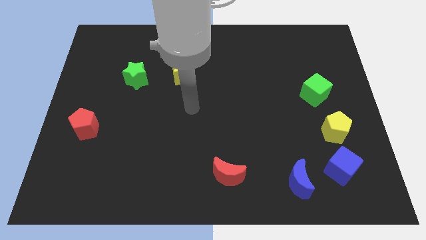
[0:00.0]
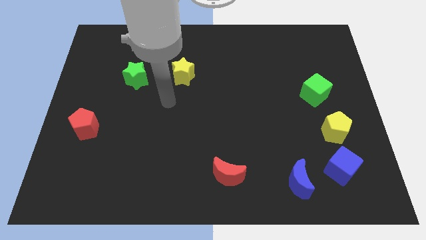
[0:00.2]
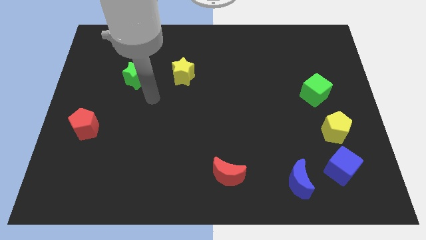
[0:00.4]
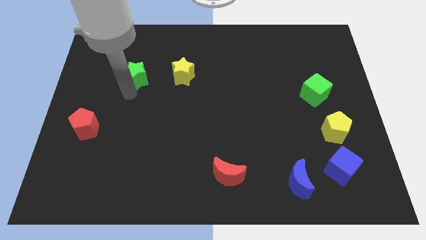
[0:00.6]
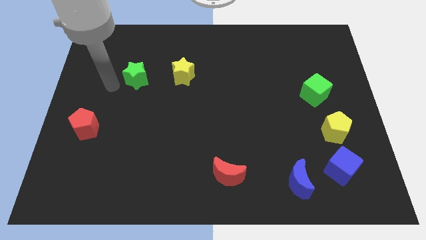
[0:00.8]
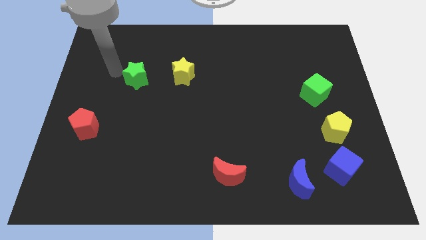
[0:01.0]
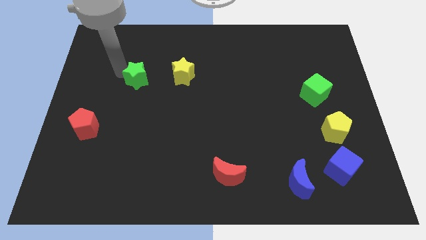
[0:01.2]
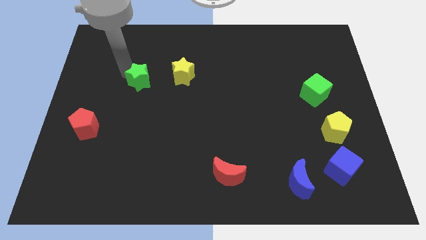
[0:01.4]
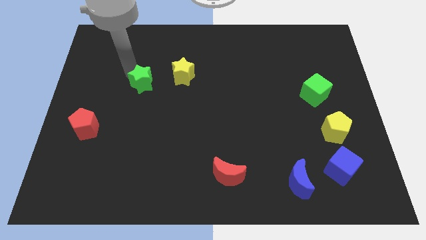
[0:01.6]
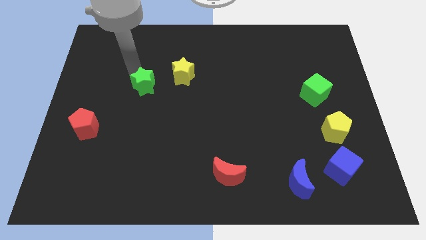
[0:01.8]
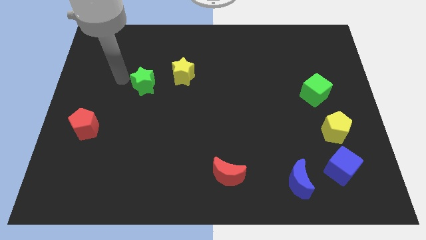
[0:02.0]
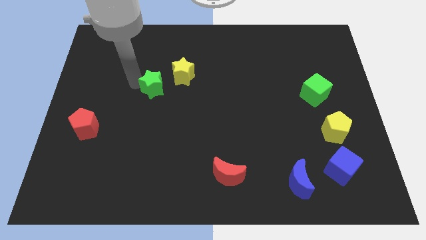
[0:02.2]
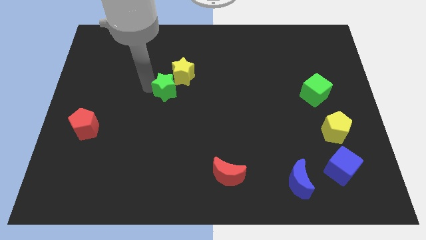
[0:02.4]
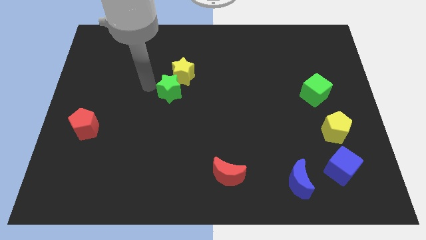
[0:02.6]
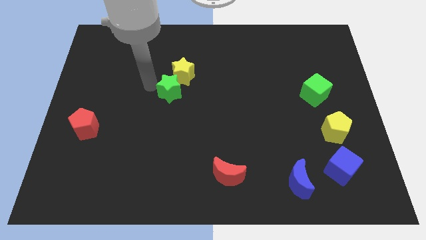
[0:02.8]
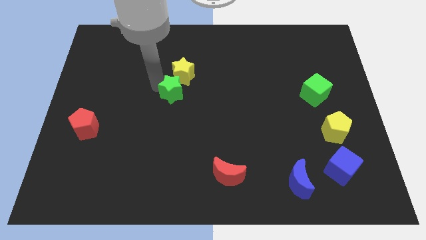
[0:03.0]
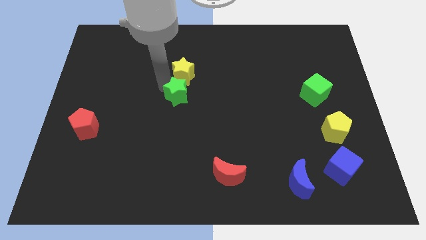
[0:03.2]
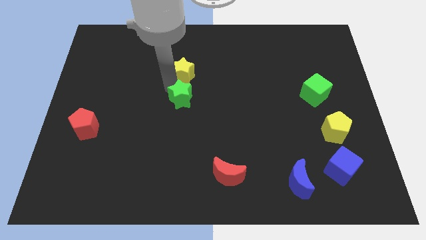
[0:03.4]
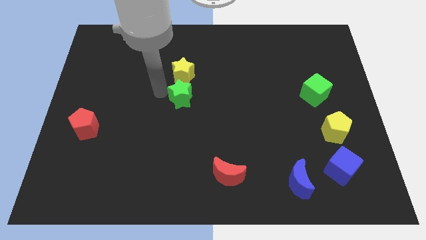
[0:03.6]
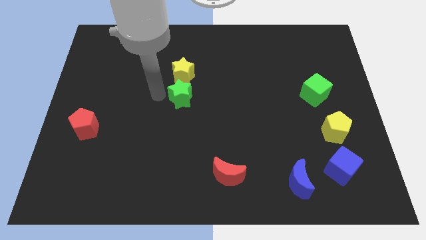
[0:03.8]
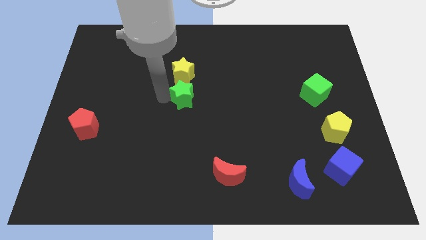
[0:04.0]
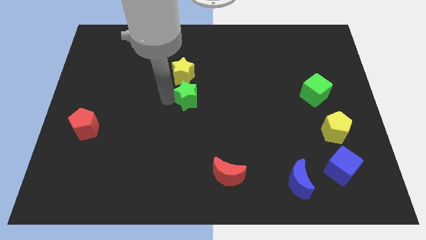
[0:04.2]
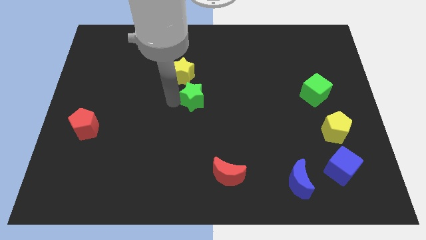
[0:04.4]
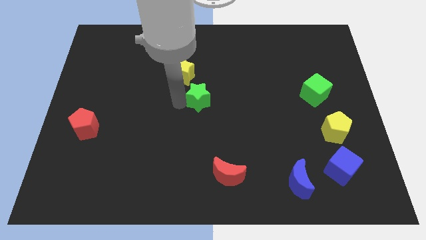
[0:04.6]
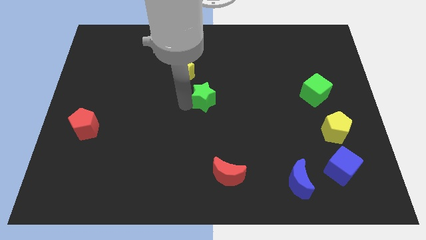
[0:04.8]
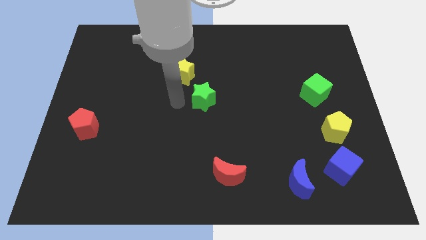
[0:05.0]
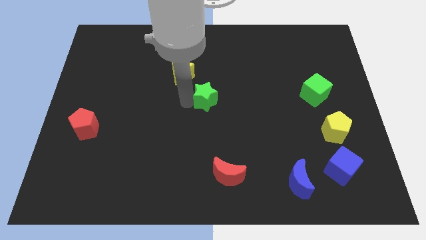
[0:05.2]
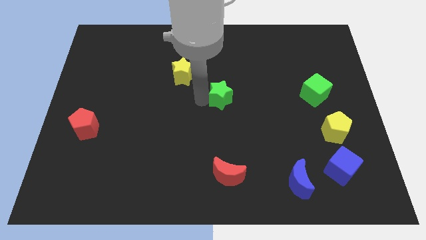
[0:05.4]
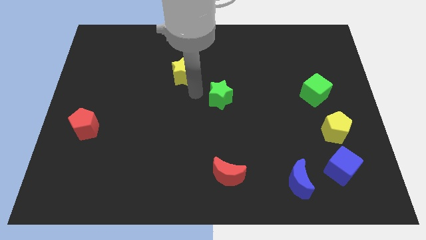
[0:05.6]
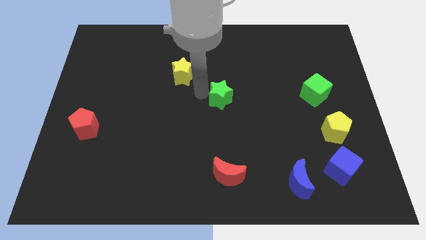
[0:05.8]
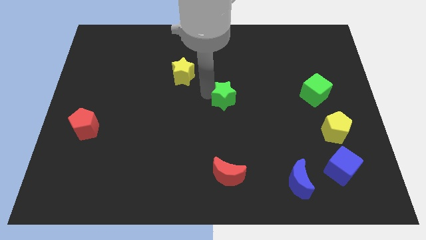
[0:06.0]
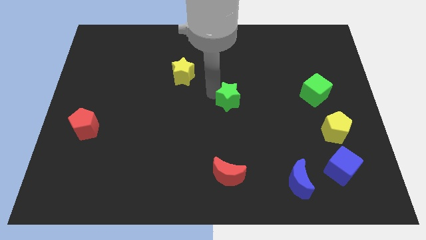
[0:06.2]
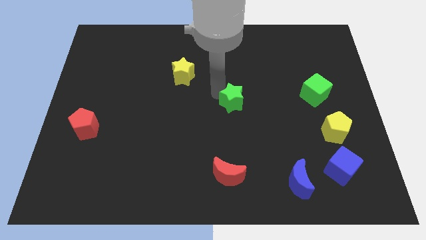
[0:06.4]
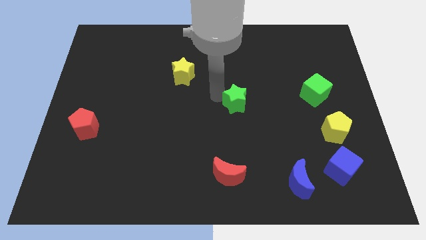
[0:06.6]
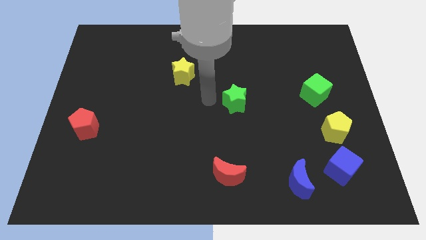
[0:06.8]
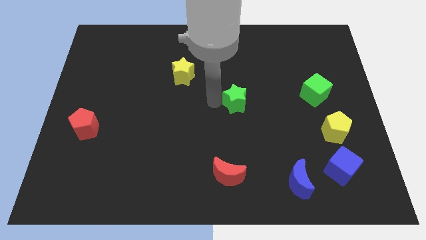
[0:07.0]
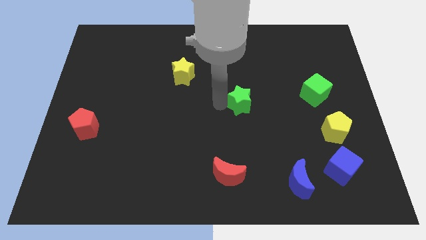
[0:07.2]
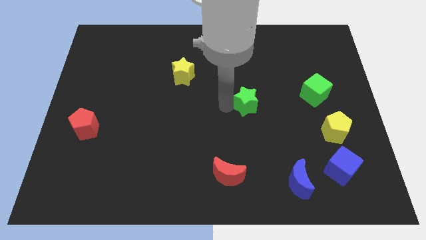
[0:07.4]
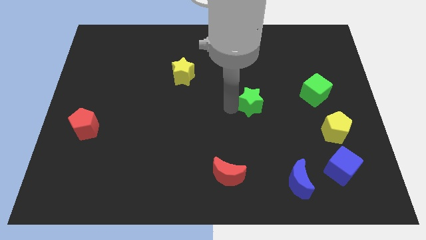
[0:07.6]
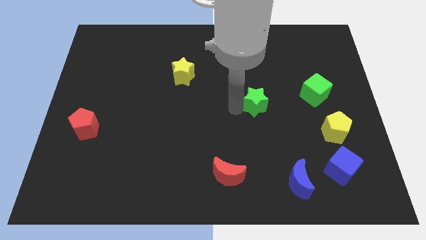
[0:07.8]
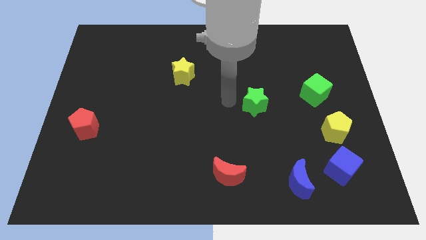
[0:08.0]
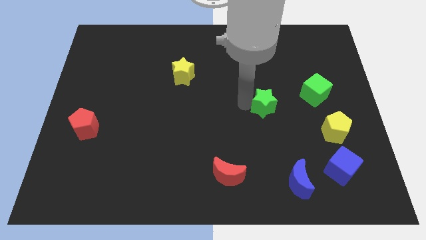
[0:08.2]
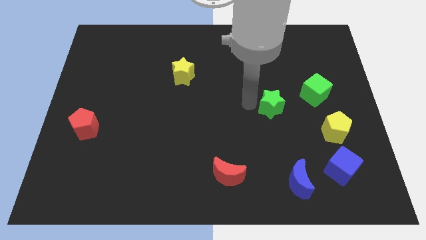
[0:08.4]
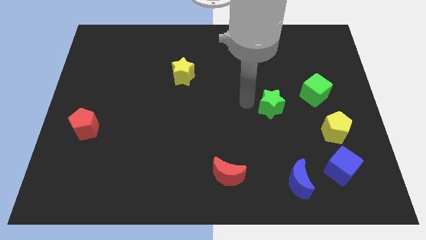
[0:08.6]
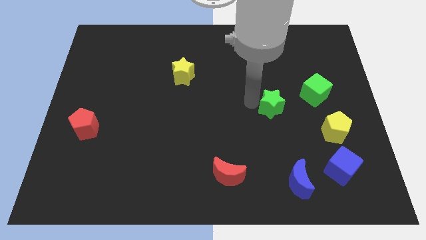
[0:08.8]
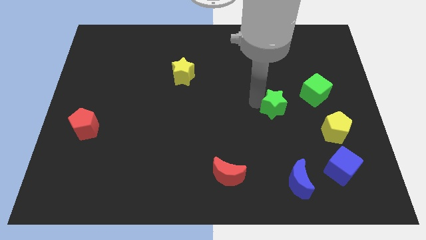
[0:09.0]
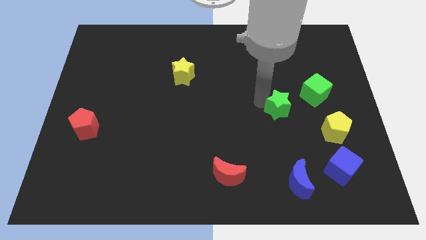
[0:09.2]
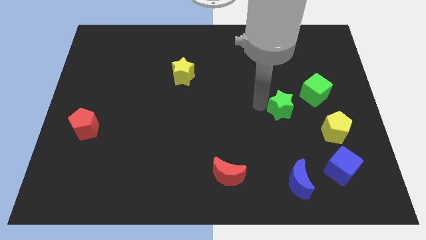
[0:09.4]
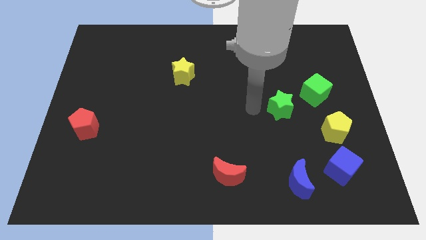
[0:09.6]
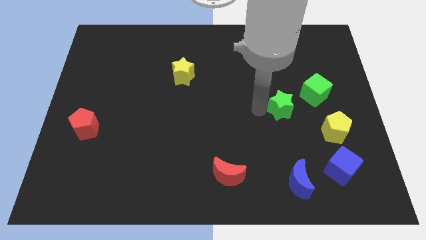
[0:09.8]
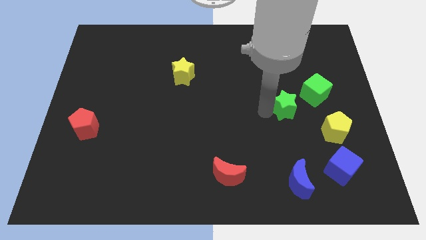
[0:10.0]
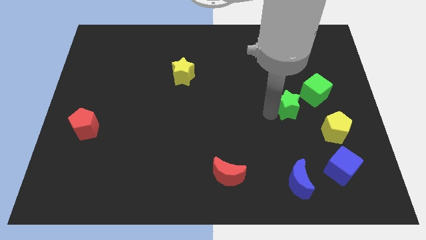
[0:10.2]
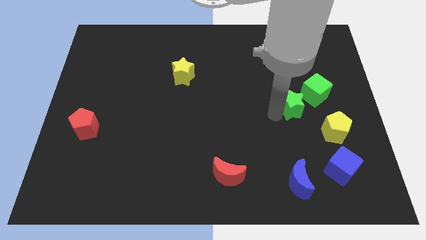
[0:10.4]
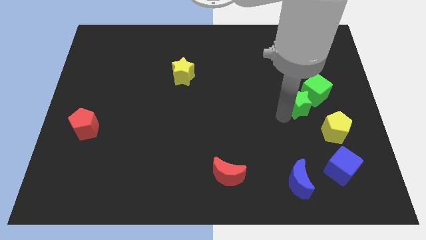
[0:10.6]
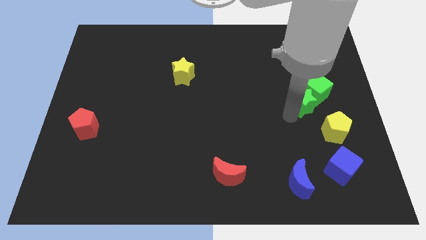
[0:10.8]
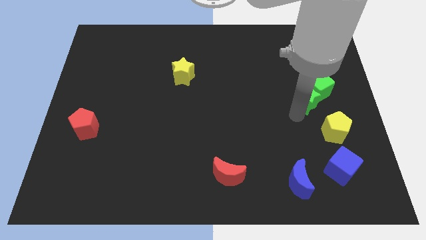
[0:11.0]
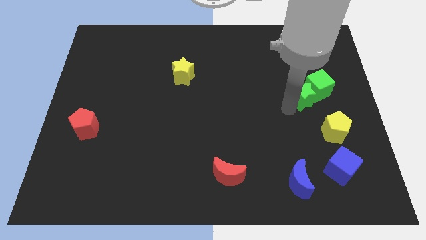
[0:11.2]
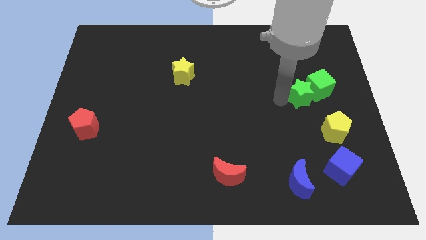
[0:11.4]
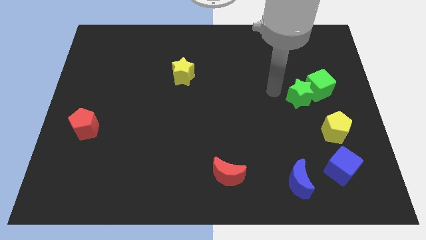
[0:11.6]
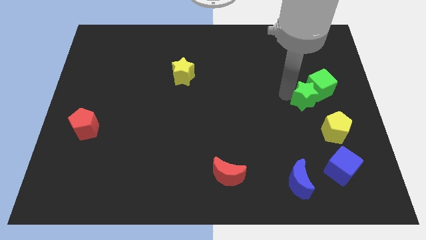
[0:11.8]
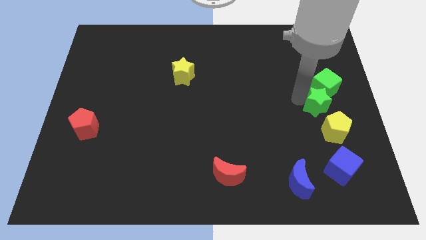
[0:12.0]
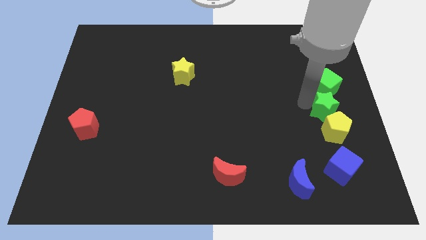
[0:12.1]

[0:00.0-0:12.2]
push the green star to the right side of the board
